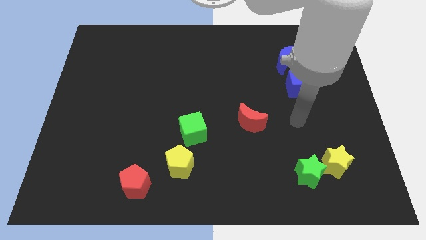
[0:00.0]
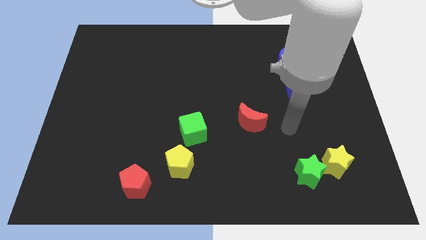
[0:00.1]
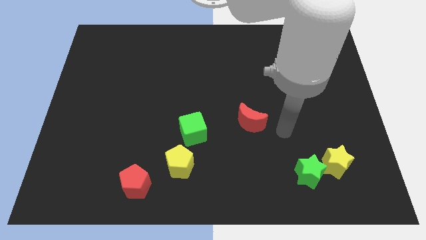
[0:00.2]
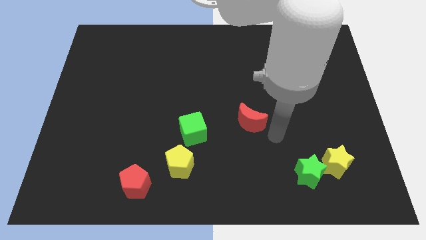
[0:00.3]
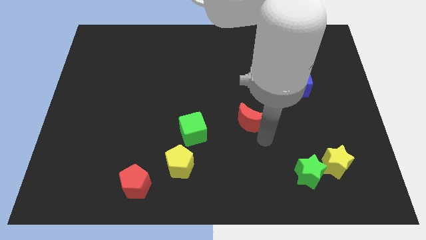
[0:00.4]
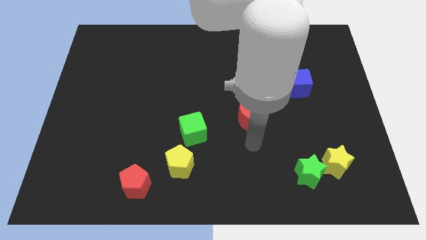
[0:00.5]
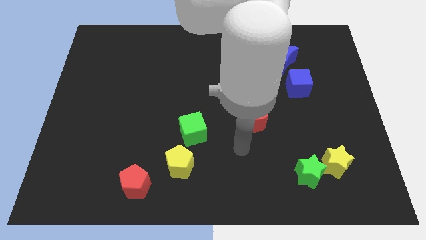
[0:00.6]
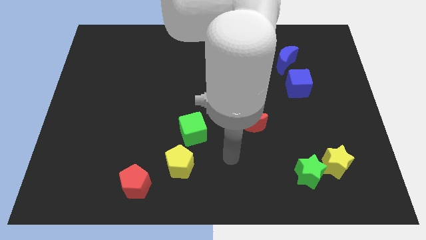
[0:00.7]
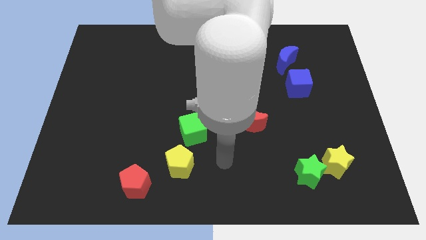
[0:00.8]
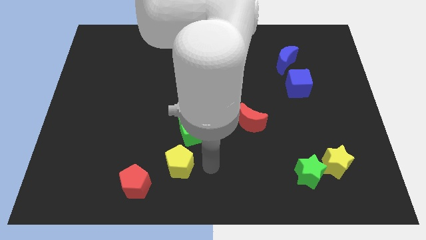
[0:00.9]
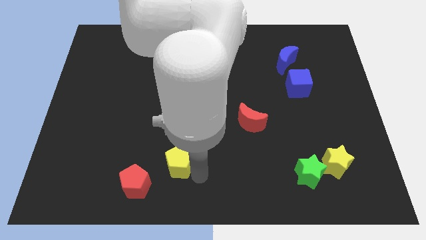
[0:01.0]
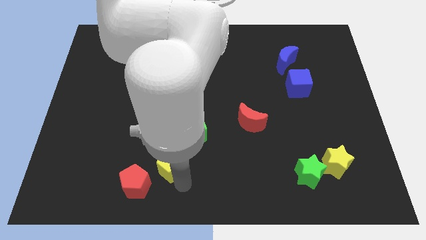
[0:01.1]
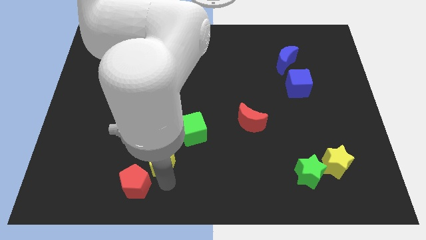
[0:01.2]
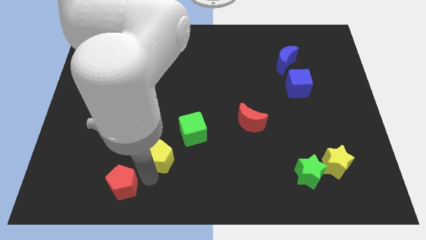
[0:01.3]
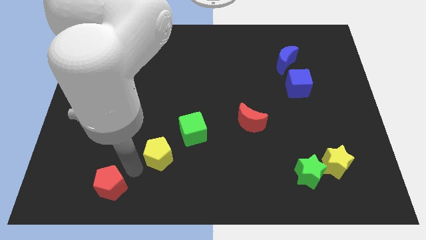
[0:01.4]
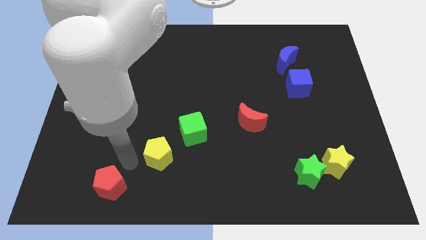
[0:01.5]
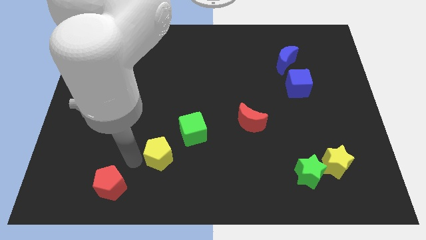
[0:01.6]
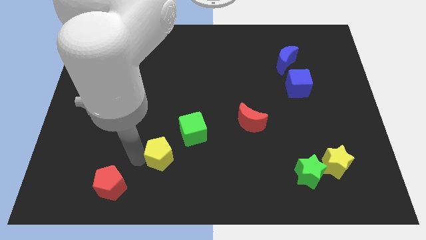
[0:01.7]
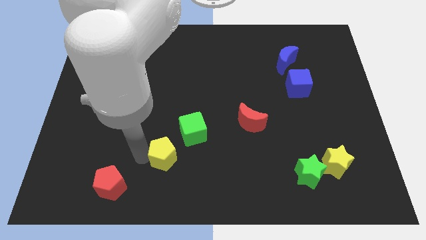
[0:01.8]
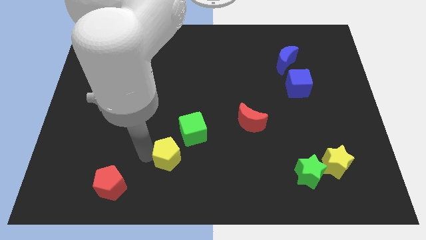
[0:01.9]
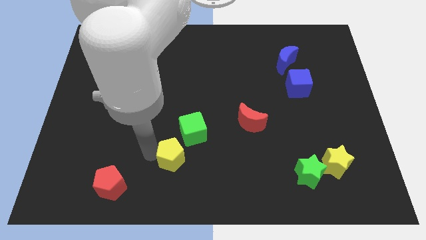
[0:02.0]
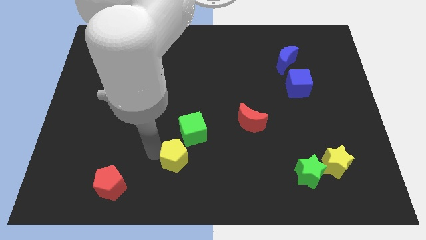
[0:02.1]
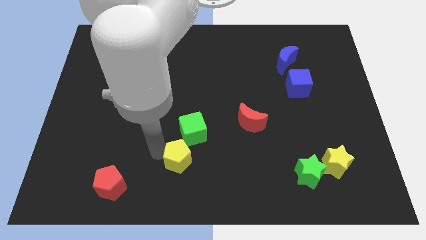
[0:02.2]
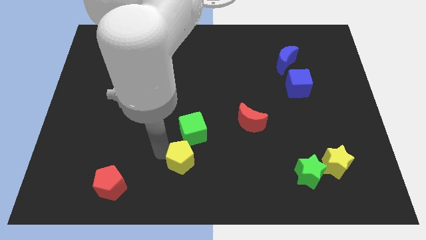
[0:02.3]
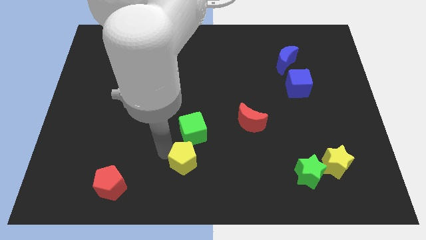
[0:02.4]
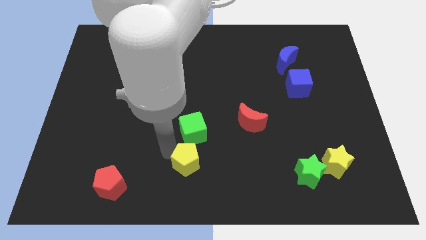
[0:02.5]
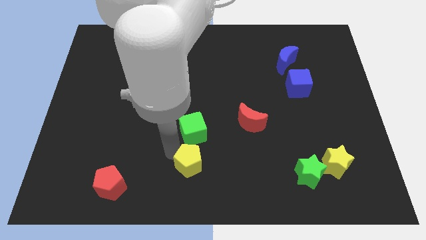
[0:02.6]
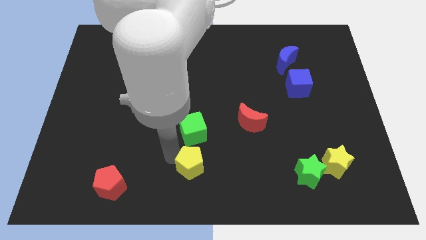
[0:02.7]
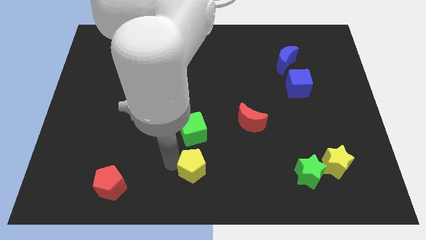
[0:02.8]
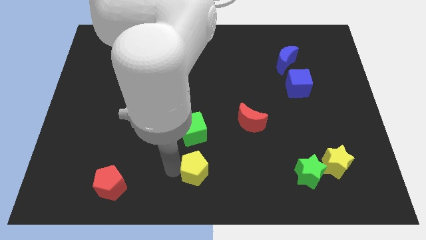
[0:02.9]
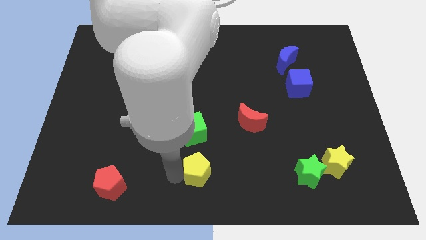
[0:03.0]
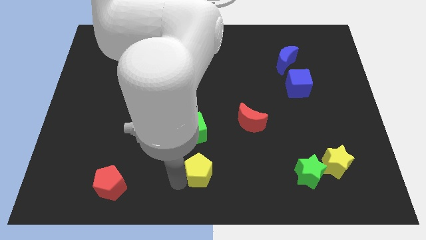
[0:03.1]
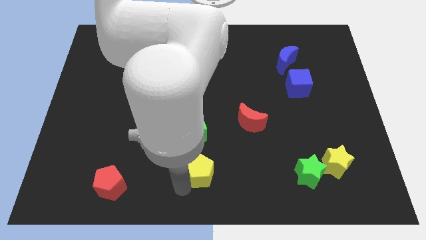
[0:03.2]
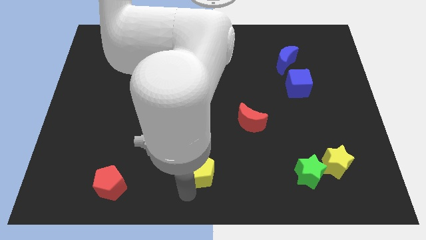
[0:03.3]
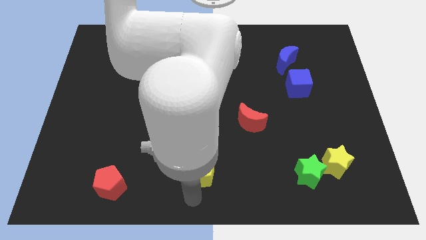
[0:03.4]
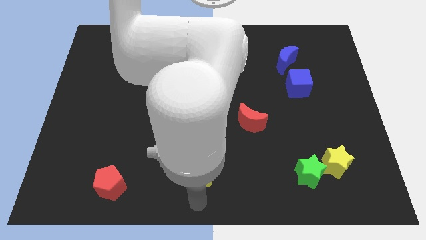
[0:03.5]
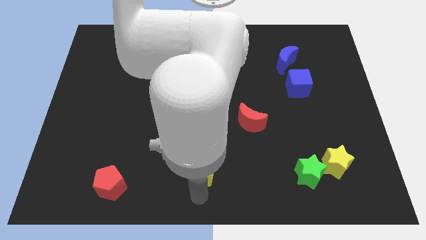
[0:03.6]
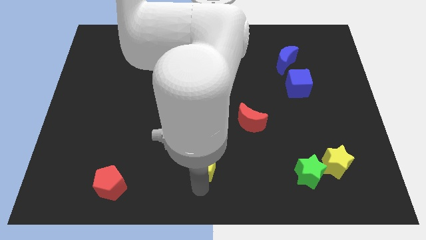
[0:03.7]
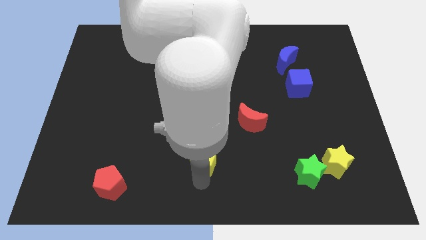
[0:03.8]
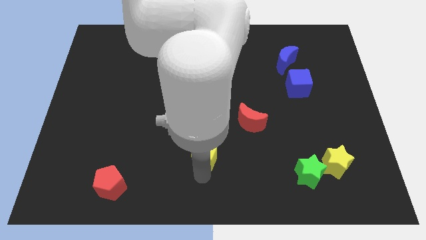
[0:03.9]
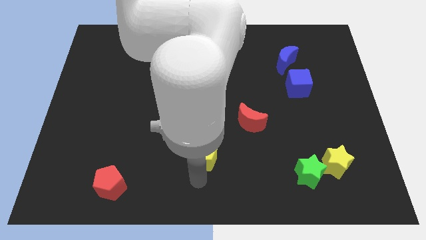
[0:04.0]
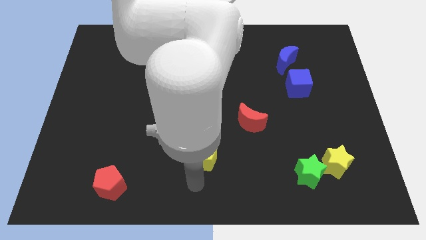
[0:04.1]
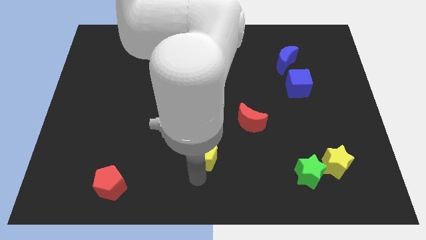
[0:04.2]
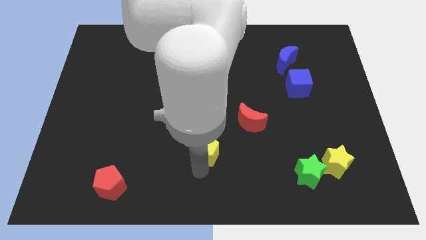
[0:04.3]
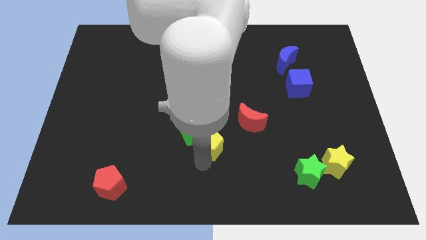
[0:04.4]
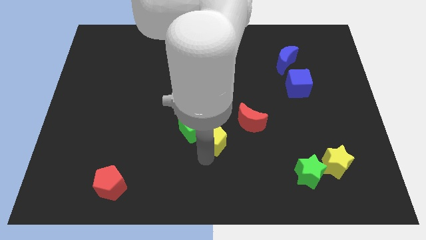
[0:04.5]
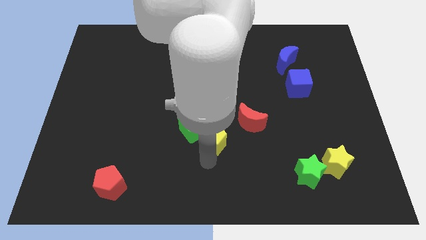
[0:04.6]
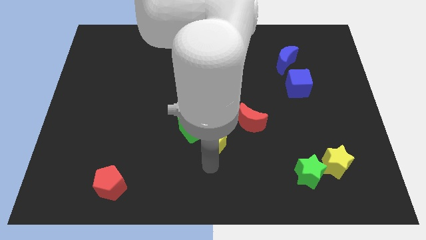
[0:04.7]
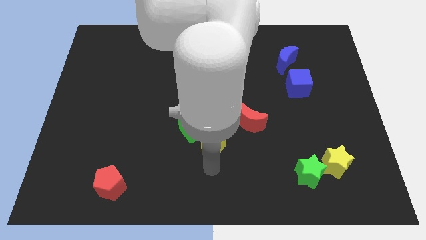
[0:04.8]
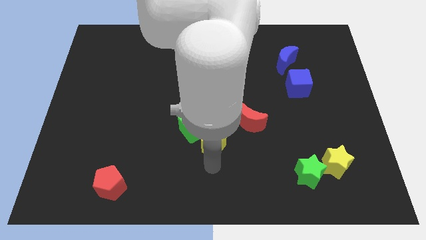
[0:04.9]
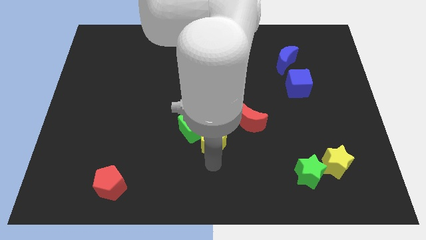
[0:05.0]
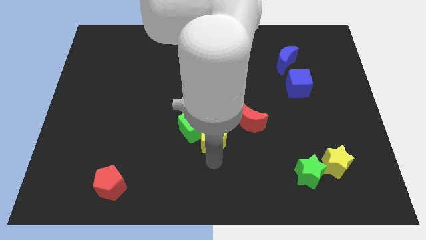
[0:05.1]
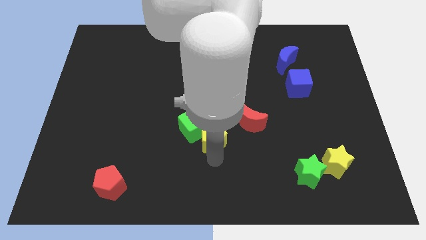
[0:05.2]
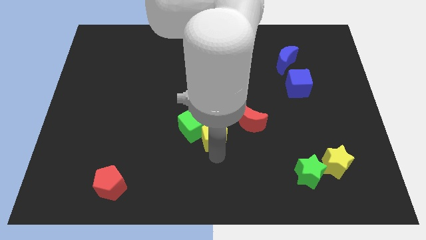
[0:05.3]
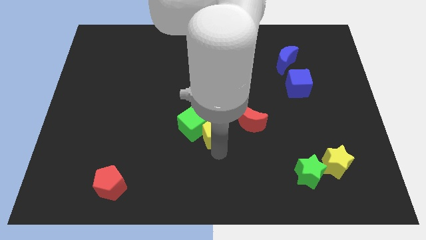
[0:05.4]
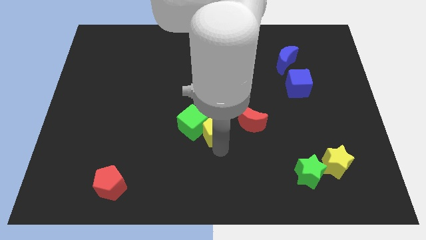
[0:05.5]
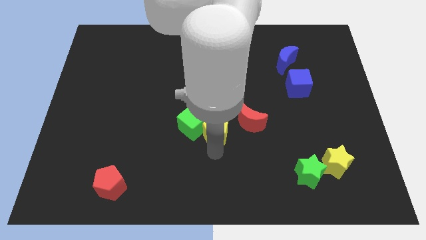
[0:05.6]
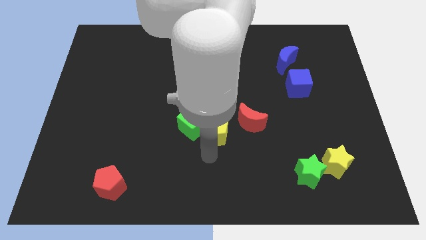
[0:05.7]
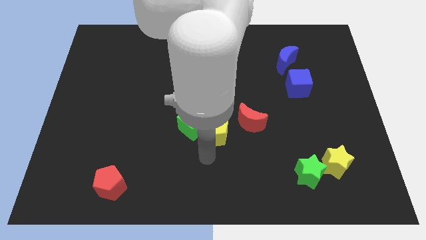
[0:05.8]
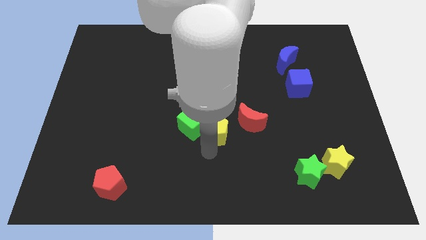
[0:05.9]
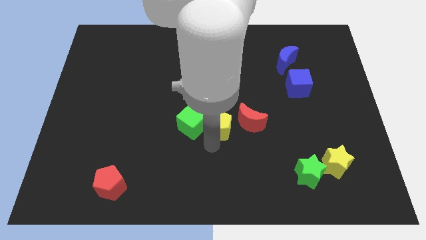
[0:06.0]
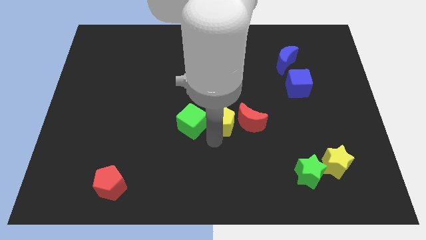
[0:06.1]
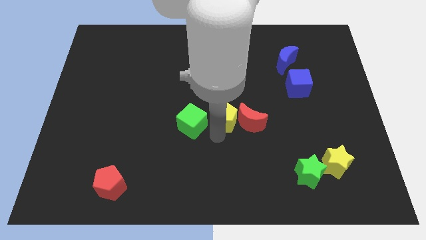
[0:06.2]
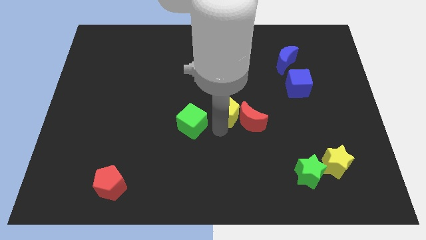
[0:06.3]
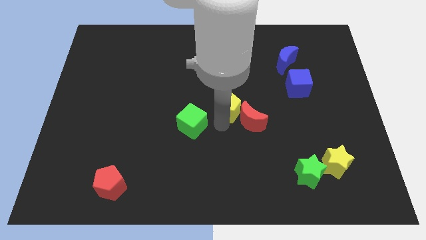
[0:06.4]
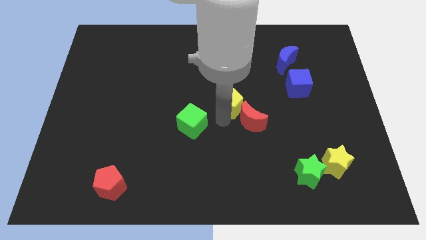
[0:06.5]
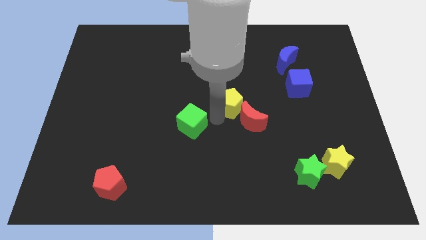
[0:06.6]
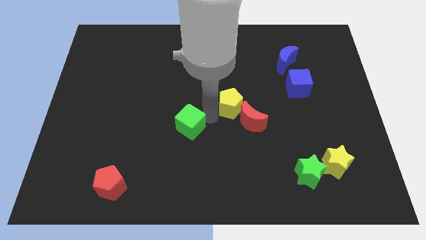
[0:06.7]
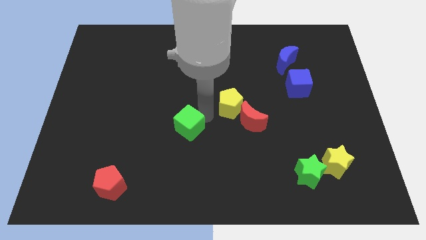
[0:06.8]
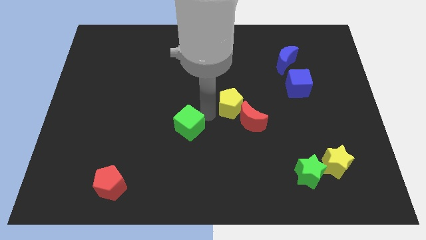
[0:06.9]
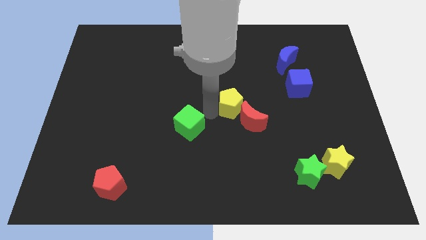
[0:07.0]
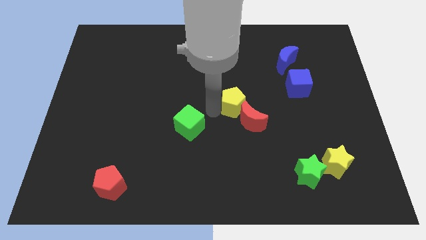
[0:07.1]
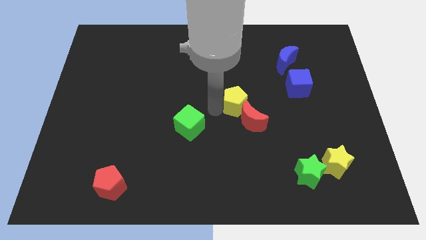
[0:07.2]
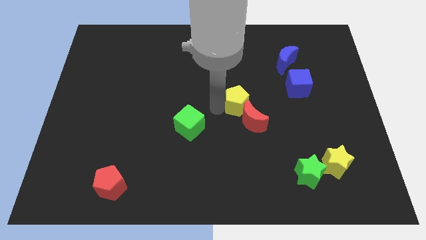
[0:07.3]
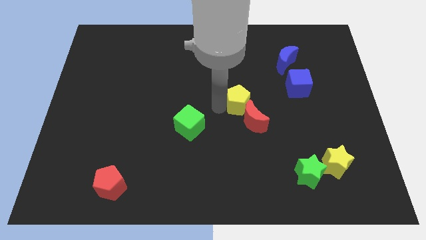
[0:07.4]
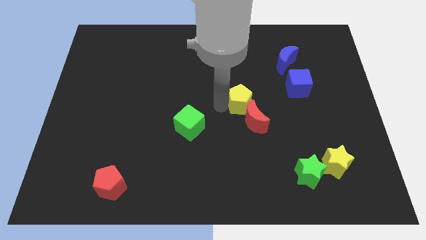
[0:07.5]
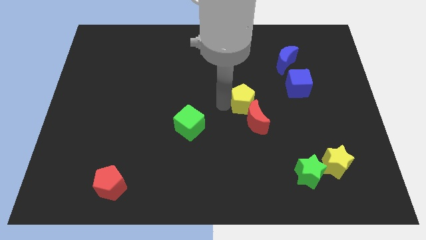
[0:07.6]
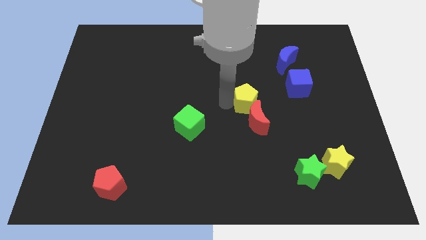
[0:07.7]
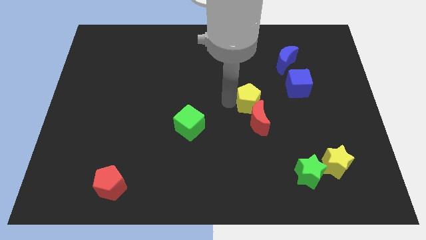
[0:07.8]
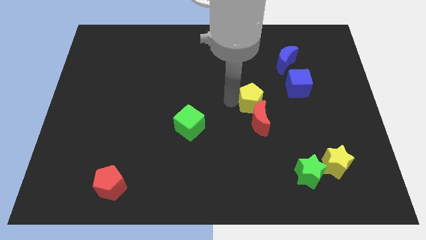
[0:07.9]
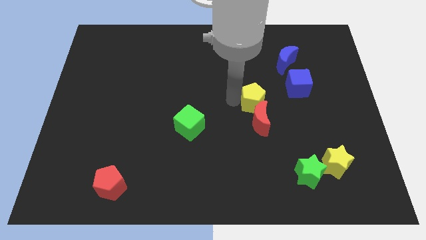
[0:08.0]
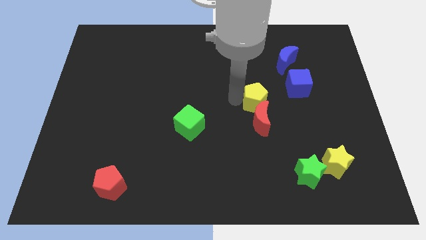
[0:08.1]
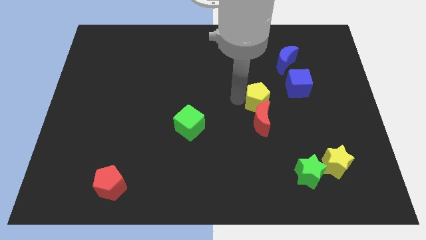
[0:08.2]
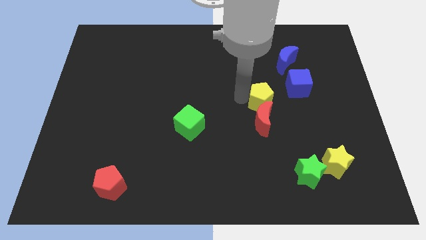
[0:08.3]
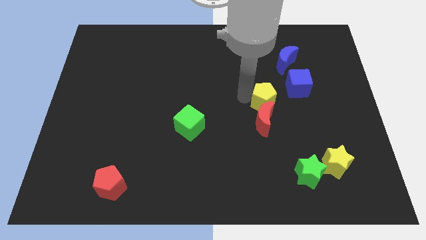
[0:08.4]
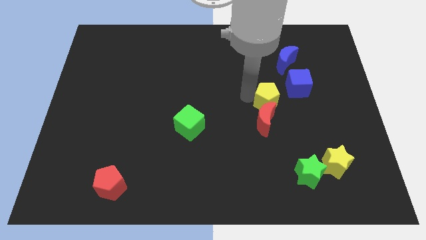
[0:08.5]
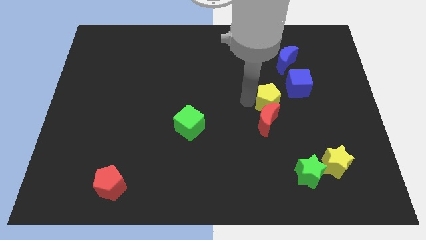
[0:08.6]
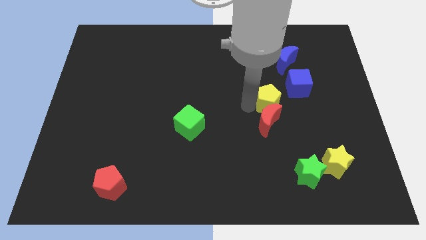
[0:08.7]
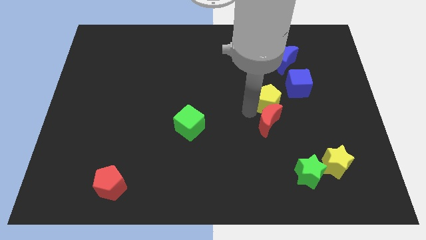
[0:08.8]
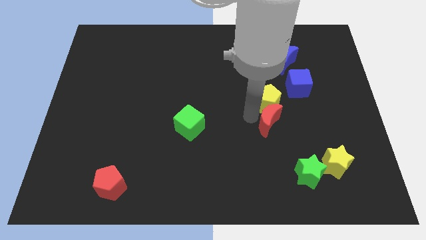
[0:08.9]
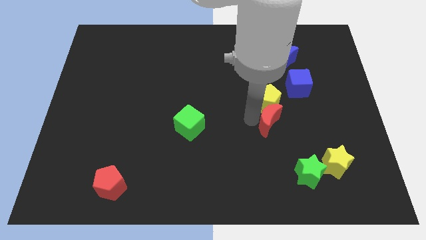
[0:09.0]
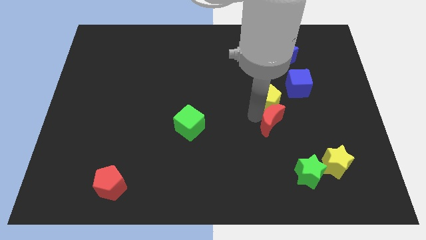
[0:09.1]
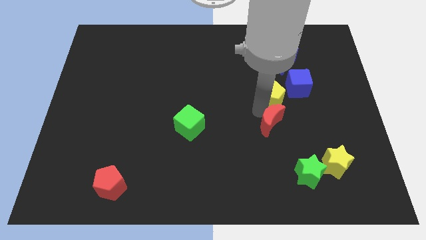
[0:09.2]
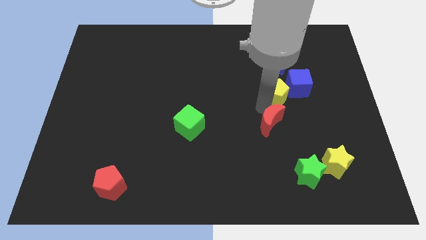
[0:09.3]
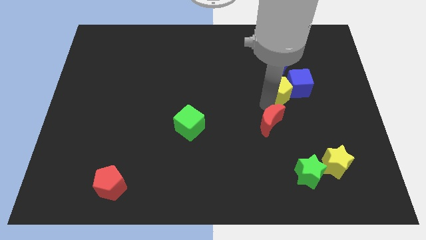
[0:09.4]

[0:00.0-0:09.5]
put the yellow pentagon to the blue cube
